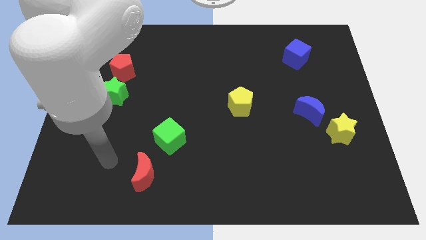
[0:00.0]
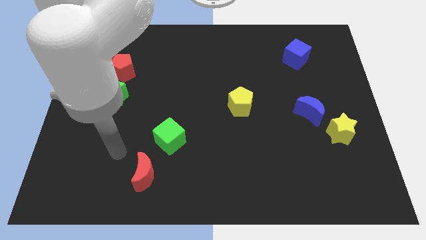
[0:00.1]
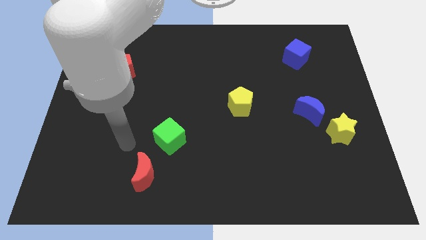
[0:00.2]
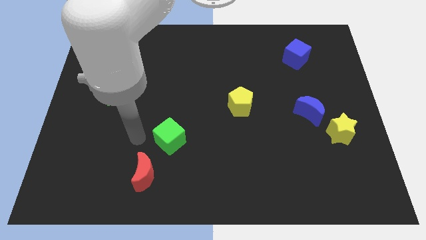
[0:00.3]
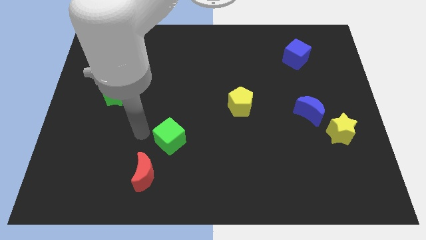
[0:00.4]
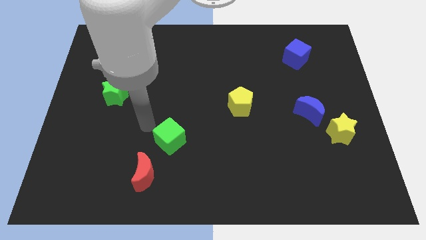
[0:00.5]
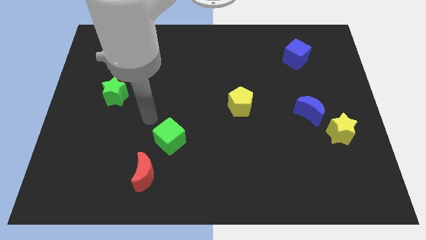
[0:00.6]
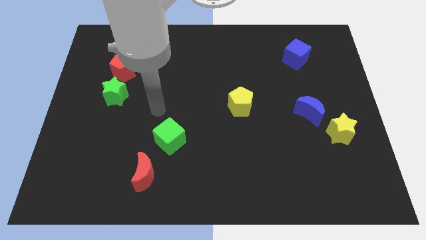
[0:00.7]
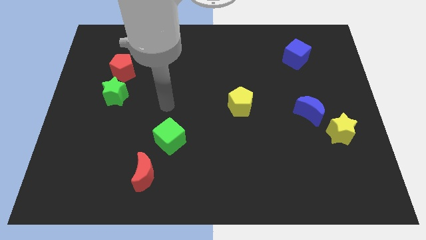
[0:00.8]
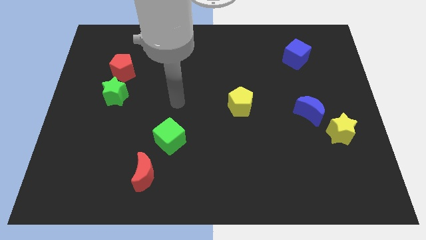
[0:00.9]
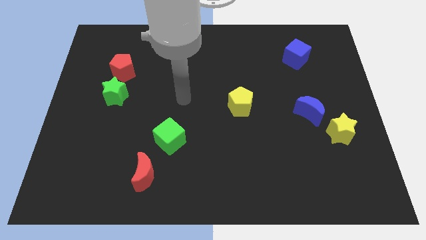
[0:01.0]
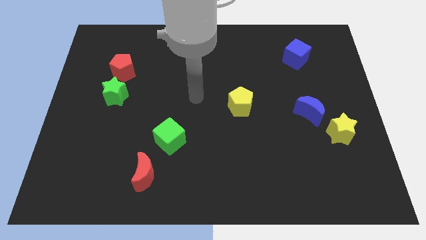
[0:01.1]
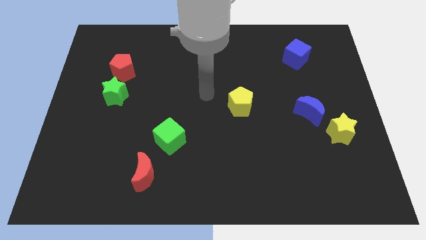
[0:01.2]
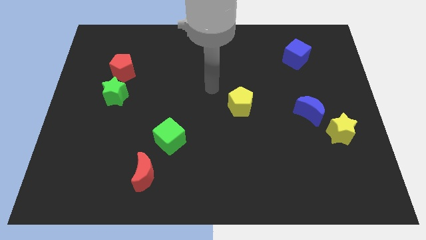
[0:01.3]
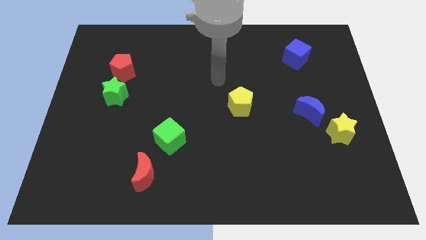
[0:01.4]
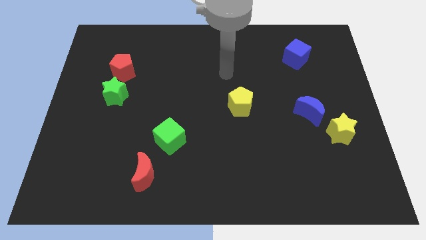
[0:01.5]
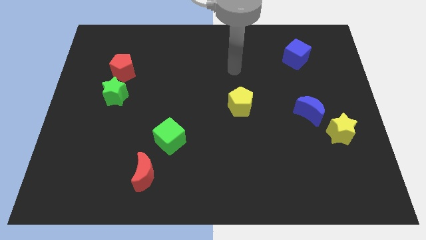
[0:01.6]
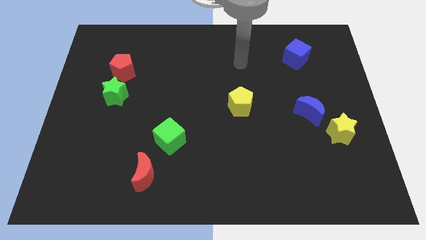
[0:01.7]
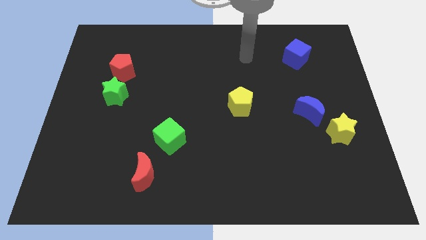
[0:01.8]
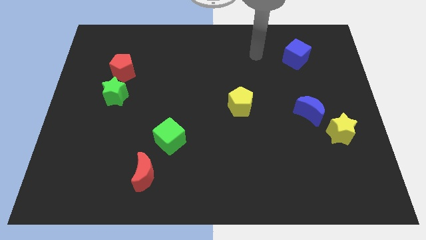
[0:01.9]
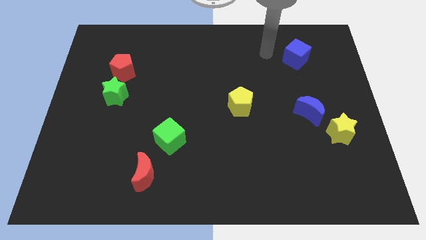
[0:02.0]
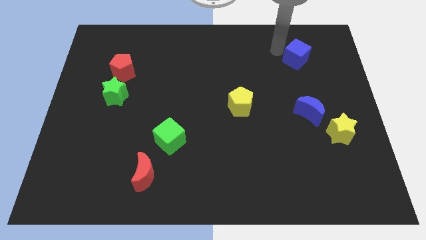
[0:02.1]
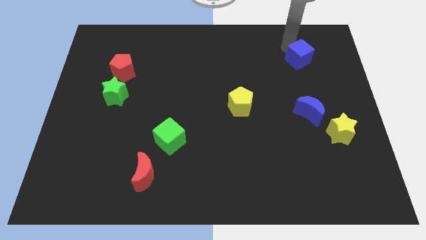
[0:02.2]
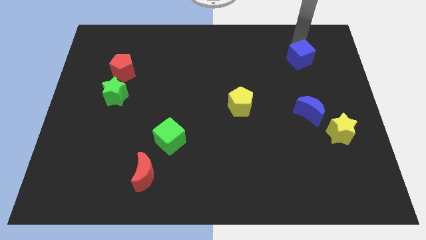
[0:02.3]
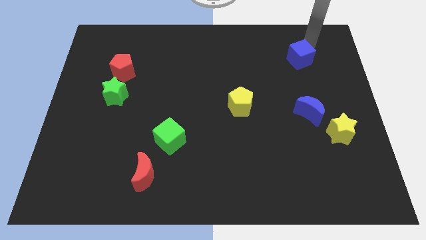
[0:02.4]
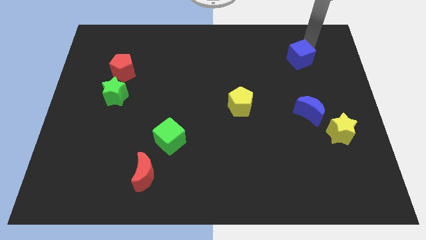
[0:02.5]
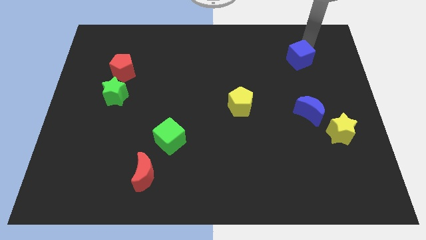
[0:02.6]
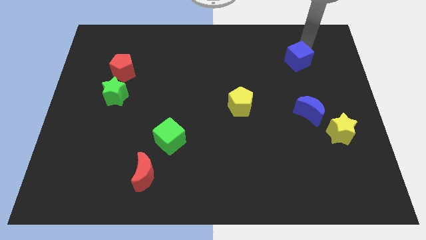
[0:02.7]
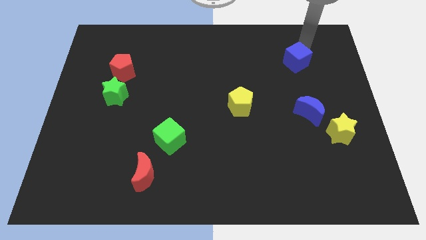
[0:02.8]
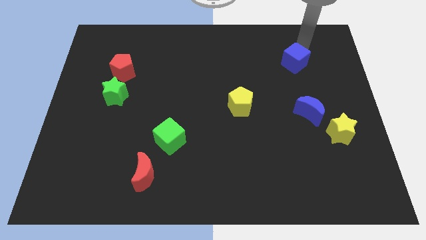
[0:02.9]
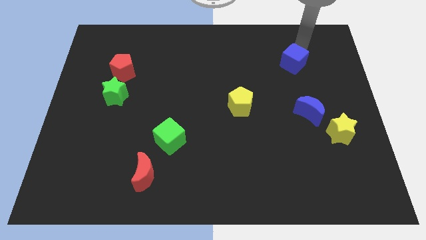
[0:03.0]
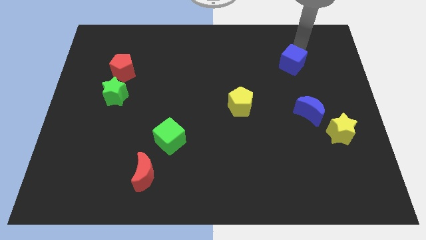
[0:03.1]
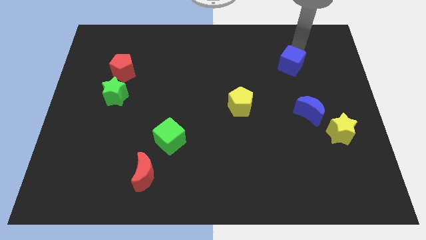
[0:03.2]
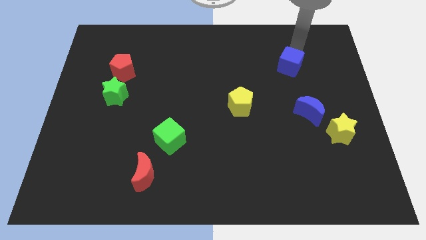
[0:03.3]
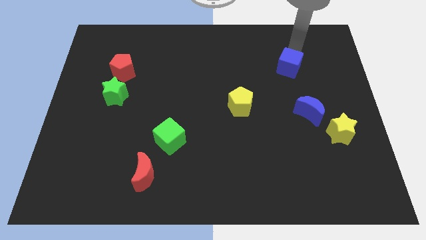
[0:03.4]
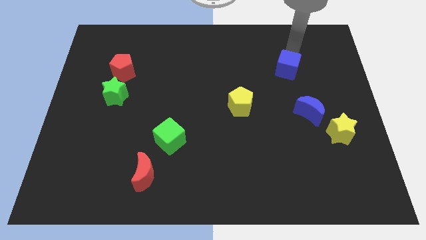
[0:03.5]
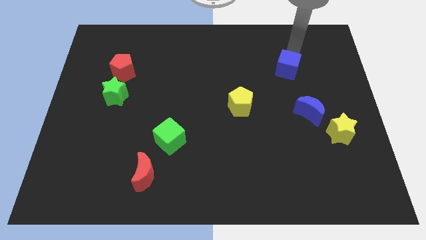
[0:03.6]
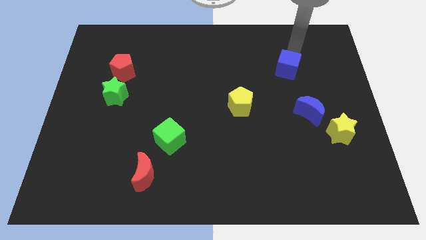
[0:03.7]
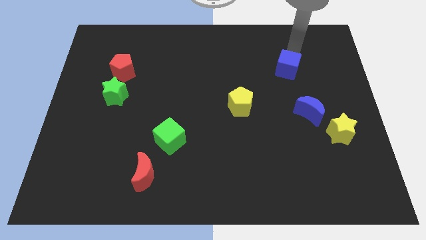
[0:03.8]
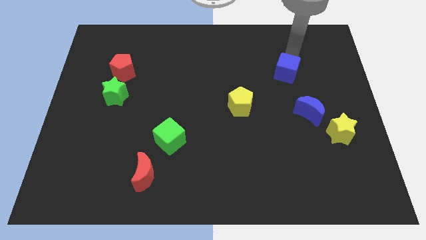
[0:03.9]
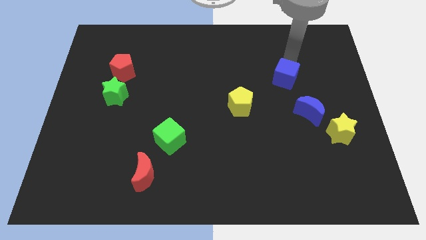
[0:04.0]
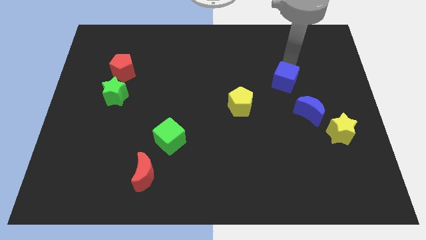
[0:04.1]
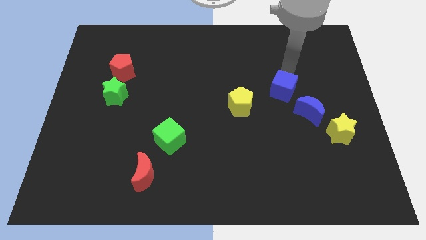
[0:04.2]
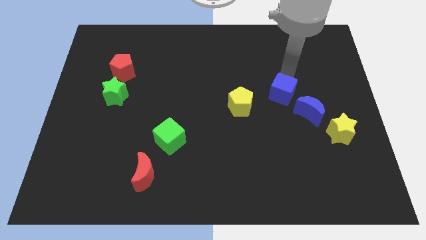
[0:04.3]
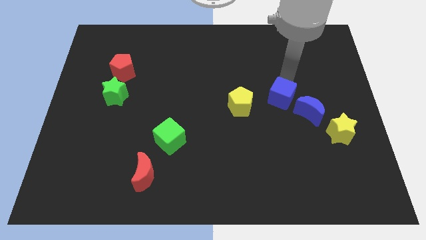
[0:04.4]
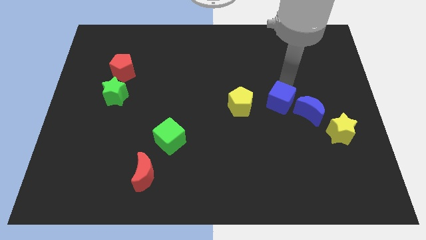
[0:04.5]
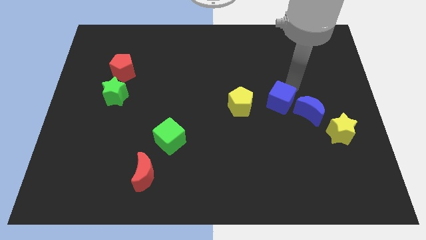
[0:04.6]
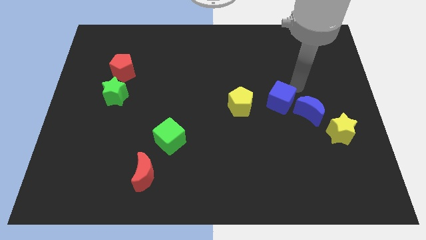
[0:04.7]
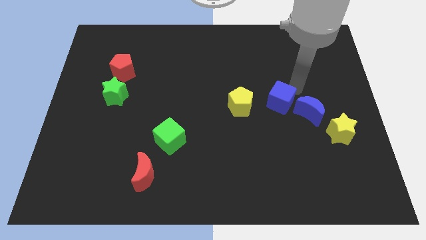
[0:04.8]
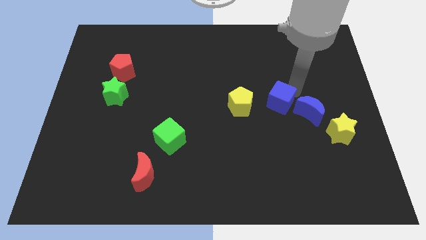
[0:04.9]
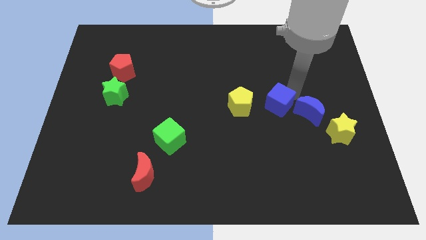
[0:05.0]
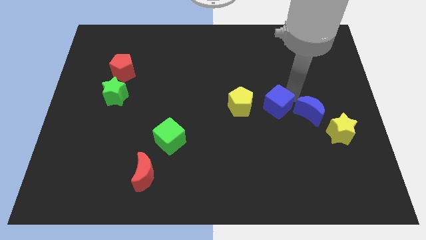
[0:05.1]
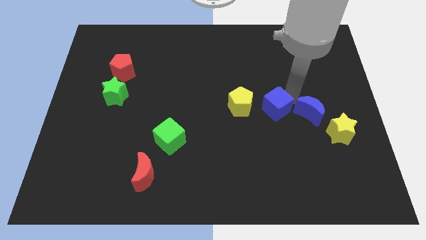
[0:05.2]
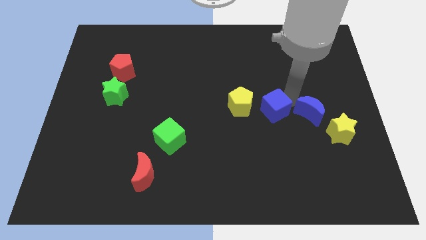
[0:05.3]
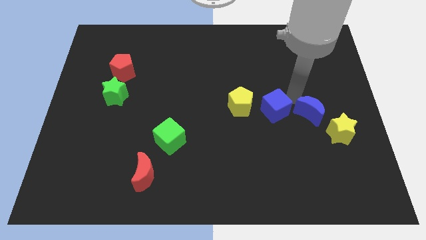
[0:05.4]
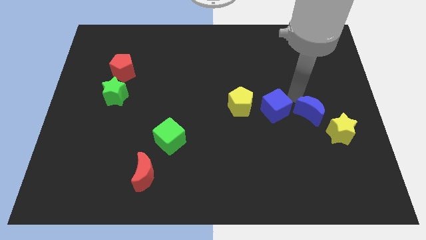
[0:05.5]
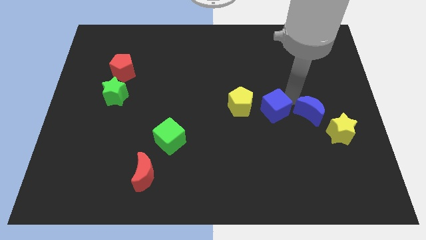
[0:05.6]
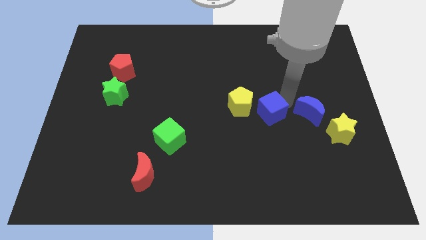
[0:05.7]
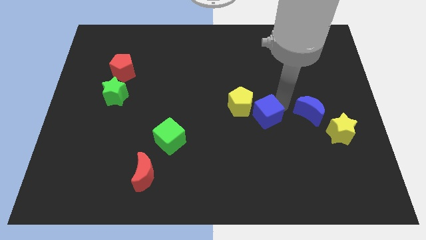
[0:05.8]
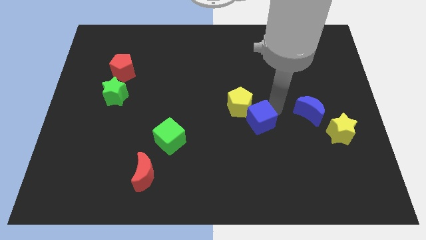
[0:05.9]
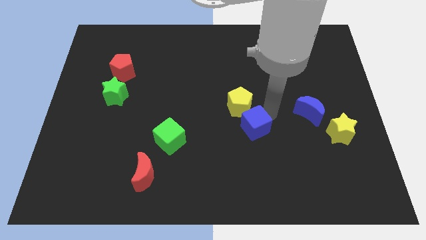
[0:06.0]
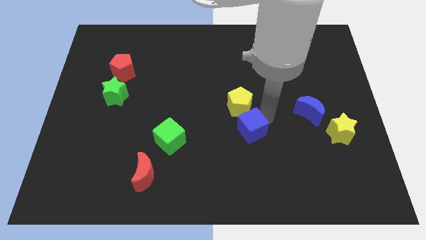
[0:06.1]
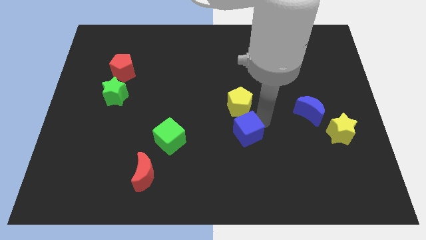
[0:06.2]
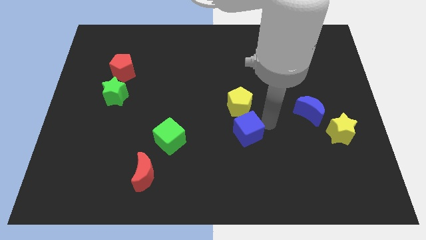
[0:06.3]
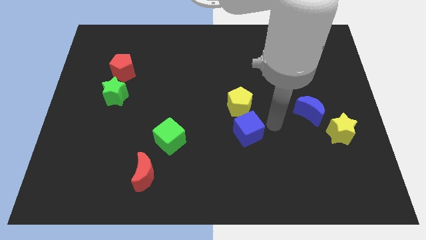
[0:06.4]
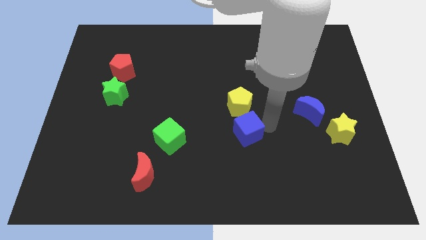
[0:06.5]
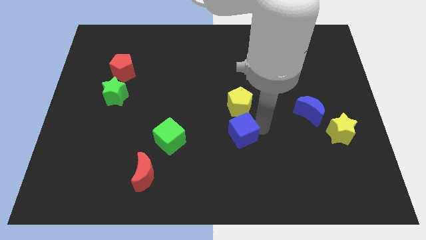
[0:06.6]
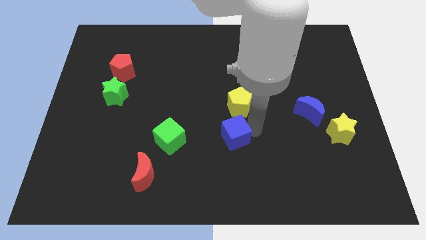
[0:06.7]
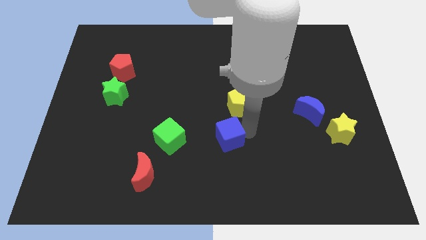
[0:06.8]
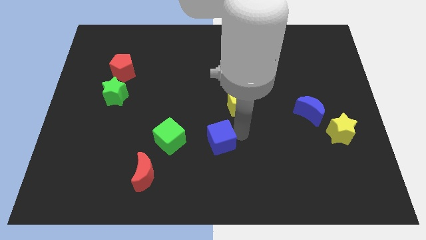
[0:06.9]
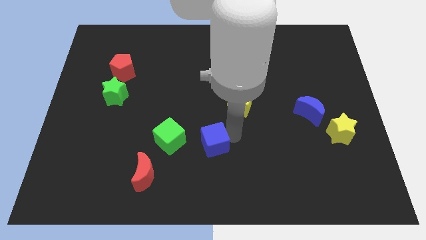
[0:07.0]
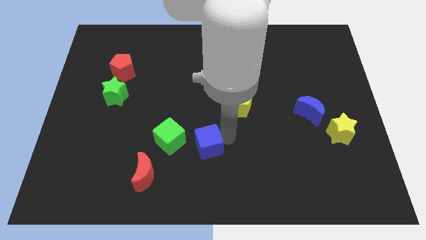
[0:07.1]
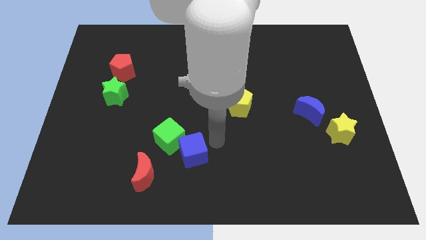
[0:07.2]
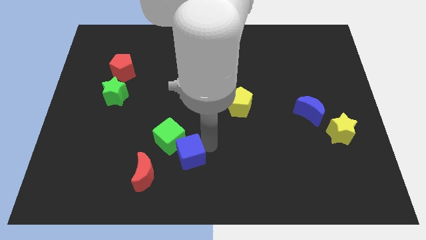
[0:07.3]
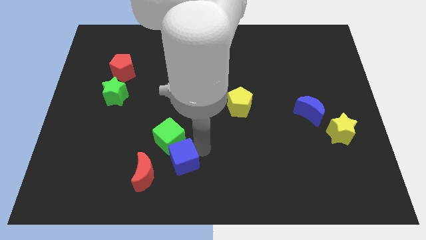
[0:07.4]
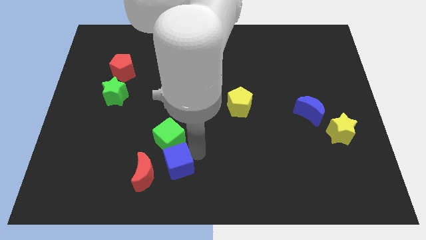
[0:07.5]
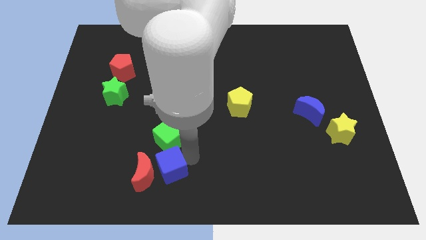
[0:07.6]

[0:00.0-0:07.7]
move the blue cube close to the red moon
